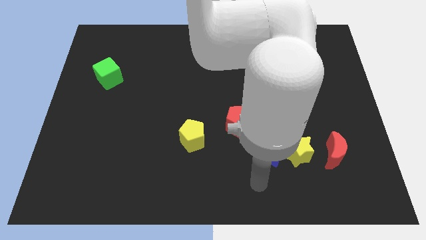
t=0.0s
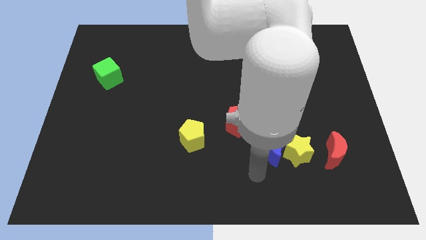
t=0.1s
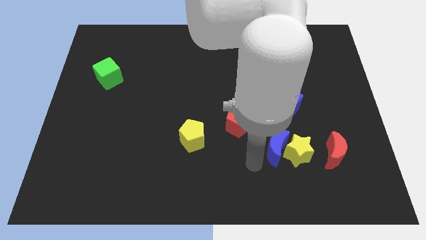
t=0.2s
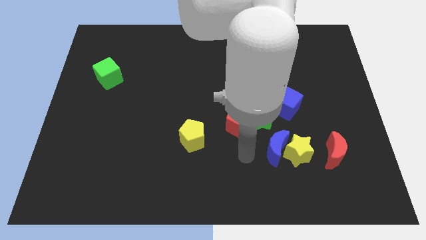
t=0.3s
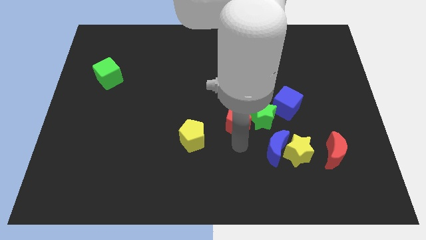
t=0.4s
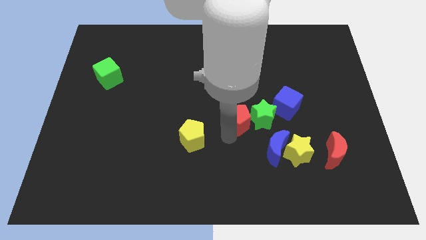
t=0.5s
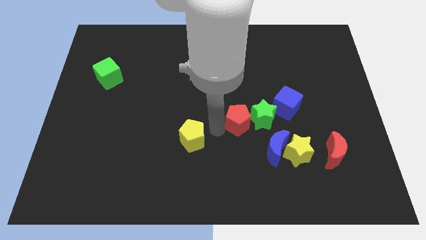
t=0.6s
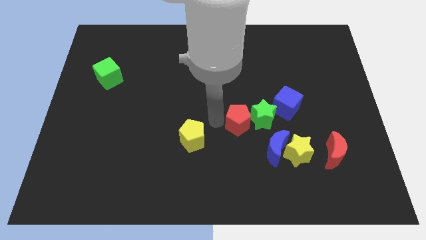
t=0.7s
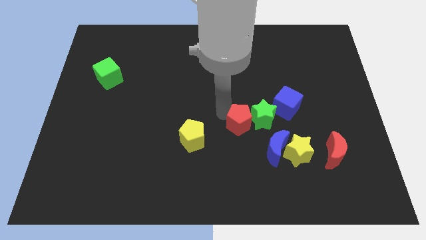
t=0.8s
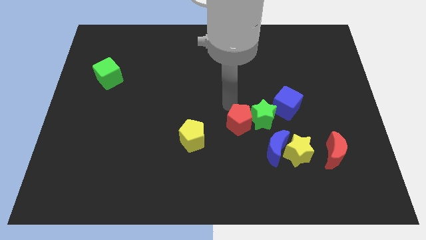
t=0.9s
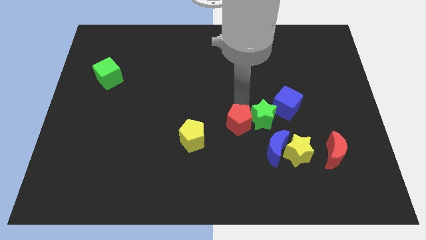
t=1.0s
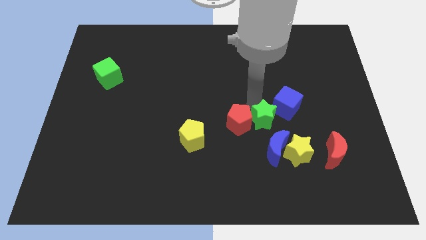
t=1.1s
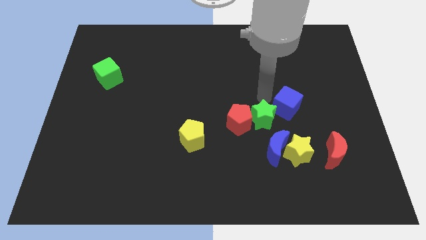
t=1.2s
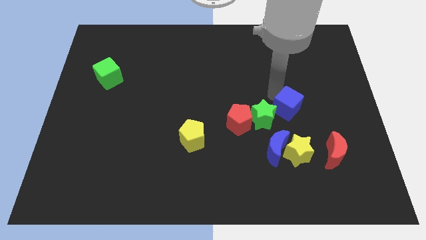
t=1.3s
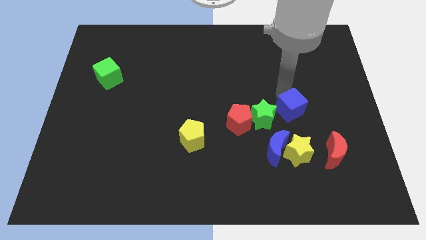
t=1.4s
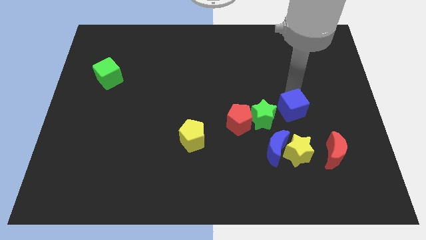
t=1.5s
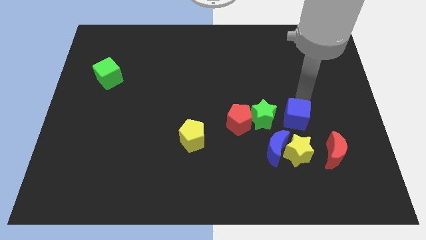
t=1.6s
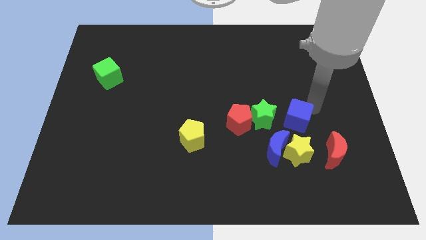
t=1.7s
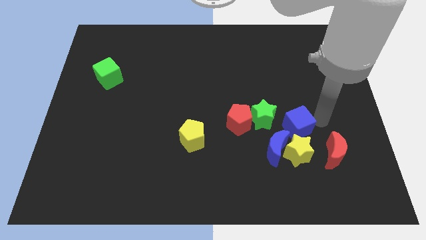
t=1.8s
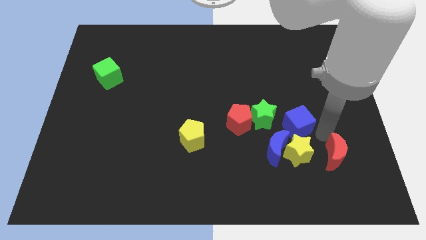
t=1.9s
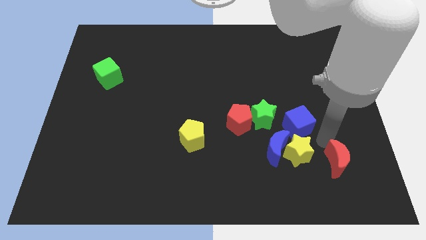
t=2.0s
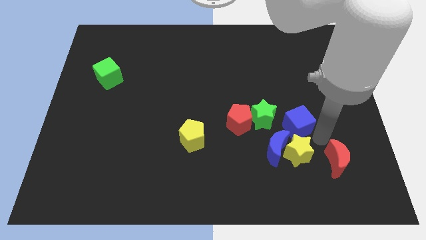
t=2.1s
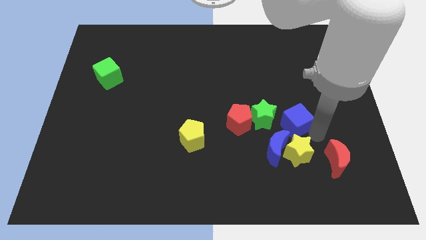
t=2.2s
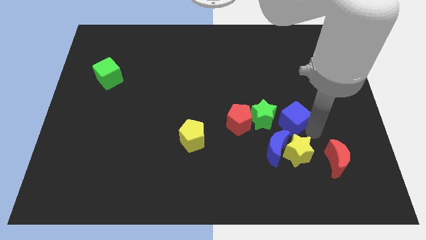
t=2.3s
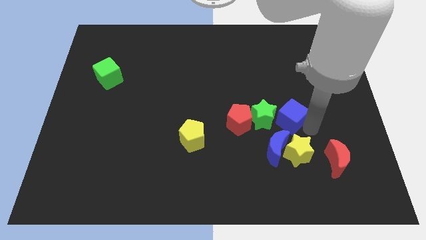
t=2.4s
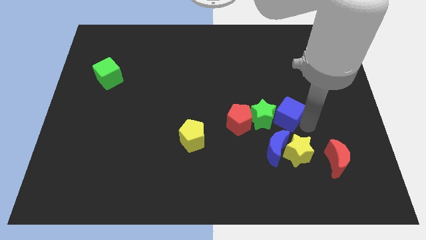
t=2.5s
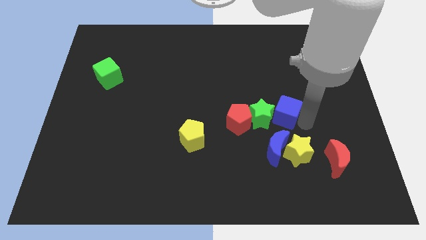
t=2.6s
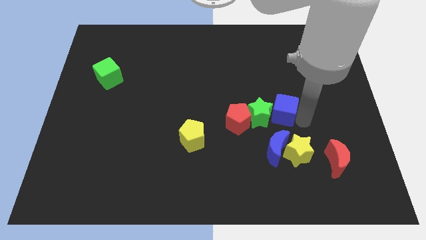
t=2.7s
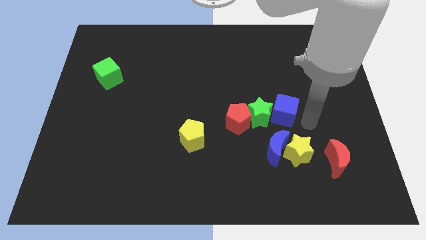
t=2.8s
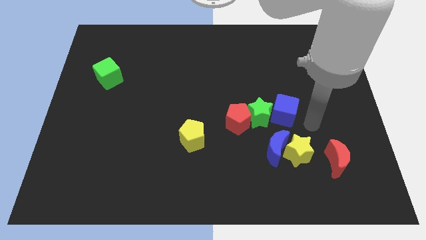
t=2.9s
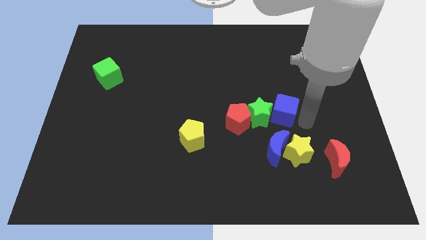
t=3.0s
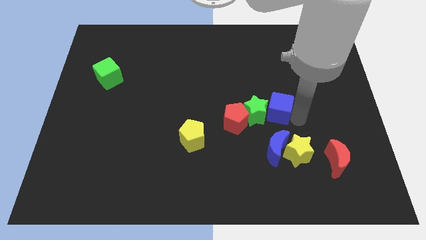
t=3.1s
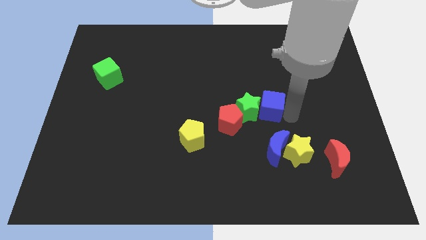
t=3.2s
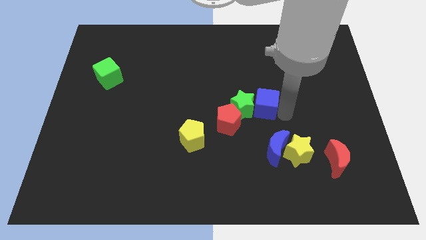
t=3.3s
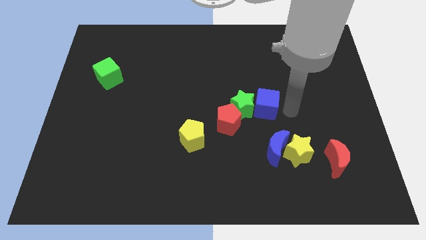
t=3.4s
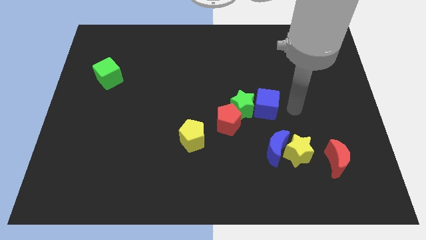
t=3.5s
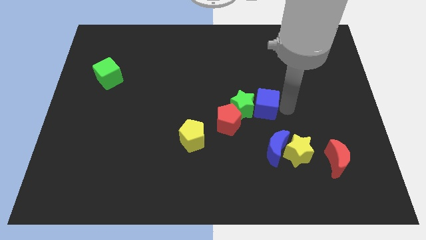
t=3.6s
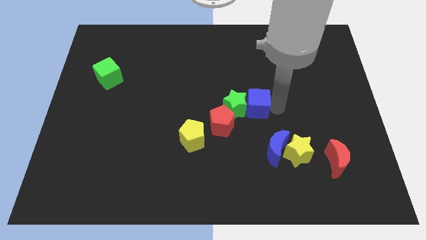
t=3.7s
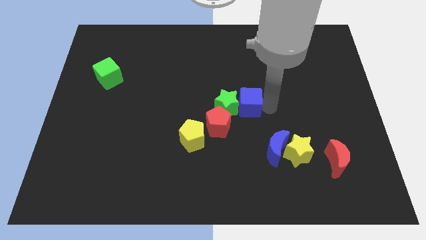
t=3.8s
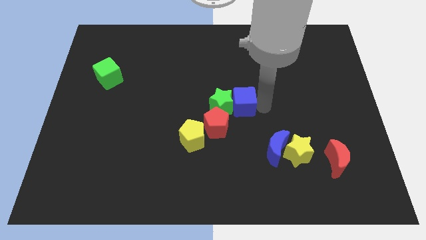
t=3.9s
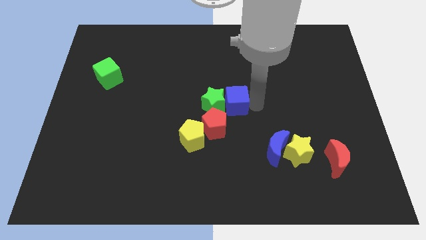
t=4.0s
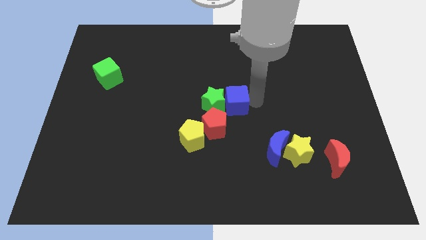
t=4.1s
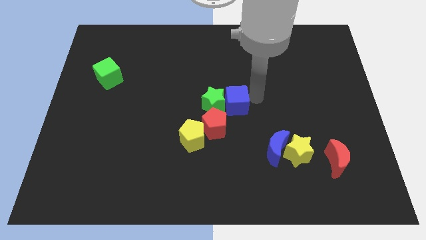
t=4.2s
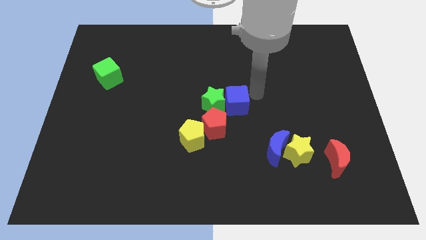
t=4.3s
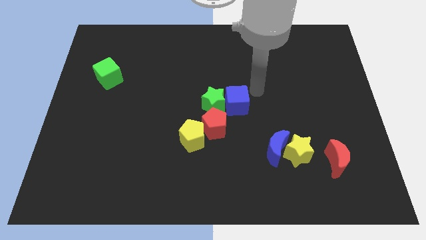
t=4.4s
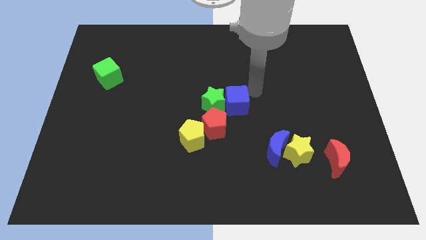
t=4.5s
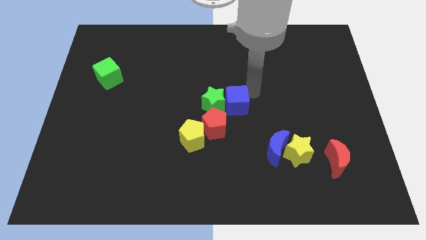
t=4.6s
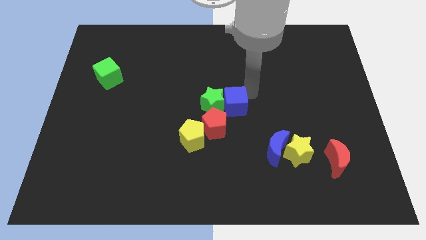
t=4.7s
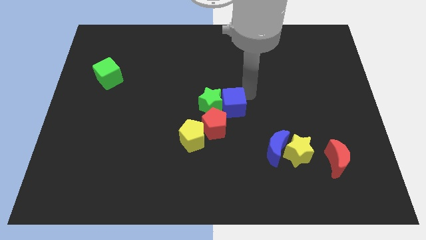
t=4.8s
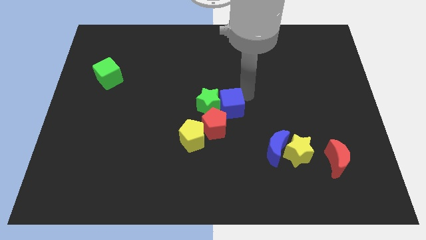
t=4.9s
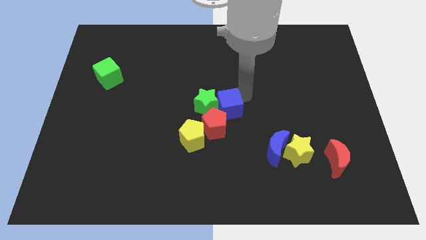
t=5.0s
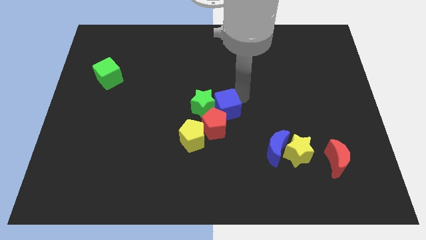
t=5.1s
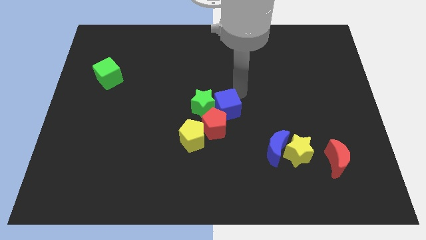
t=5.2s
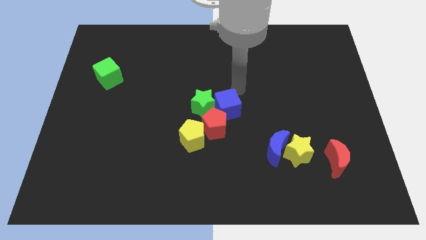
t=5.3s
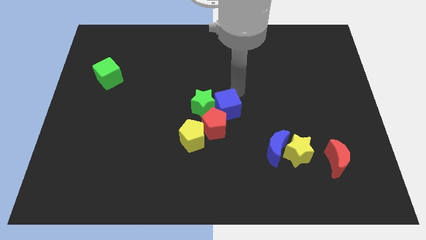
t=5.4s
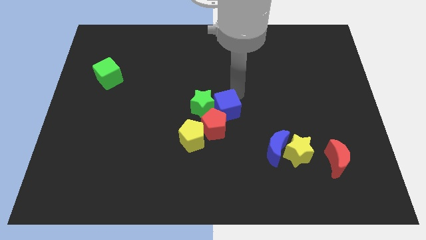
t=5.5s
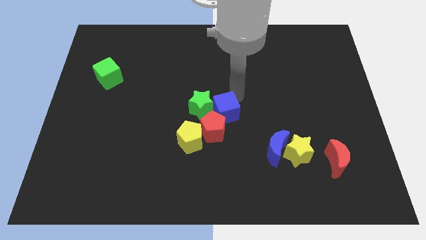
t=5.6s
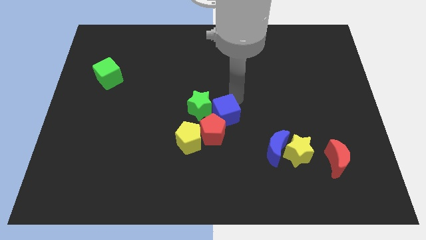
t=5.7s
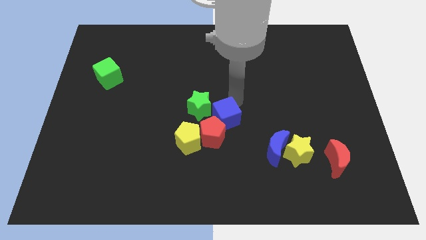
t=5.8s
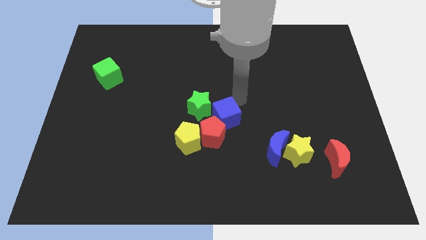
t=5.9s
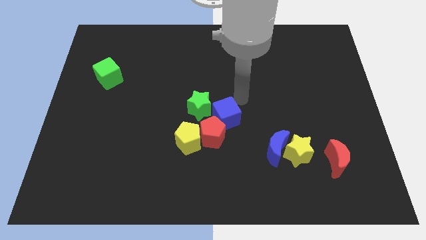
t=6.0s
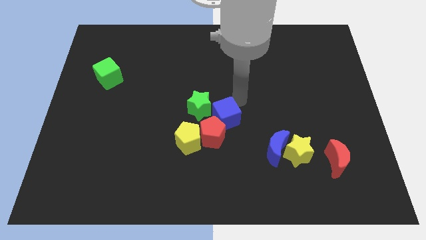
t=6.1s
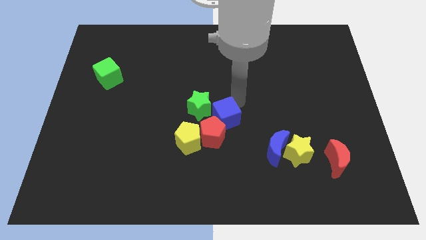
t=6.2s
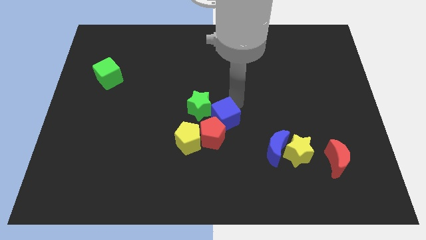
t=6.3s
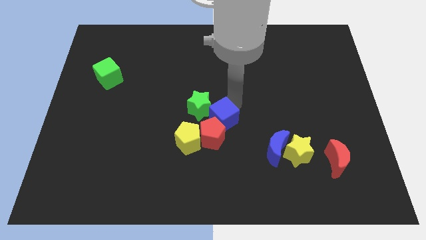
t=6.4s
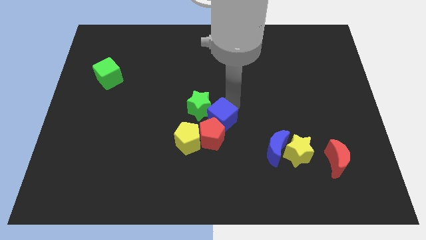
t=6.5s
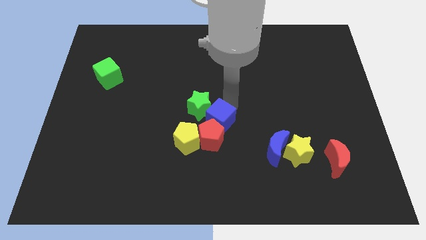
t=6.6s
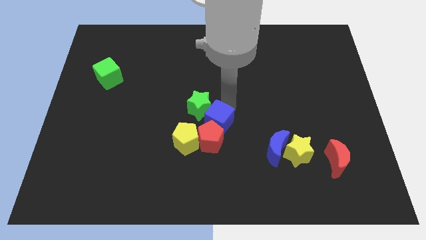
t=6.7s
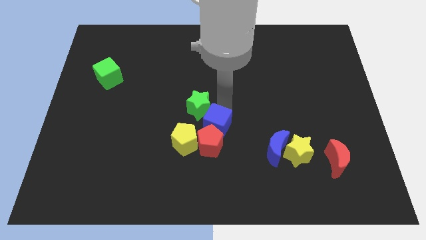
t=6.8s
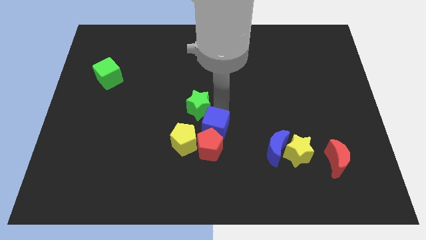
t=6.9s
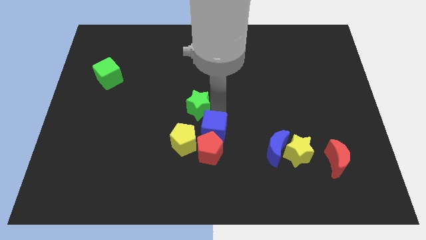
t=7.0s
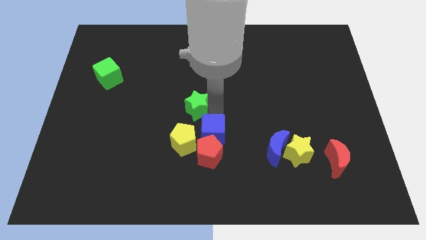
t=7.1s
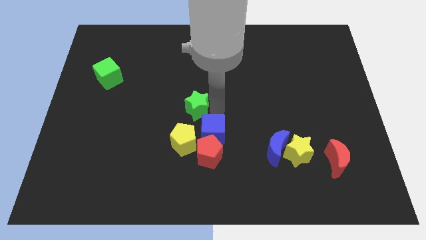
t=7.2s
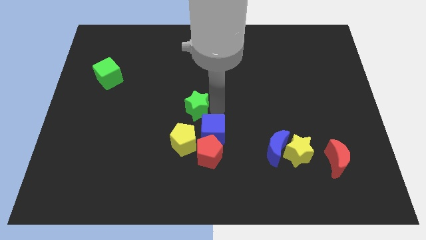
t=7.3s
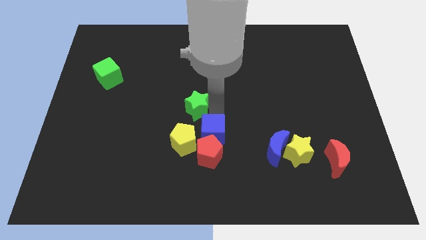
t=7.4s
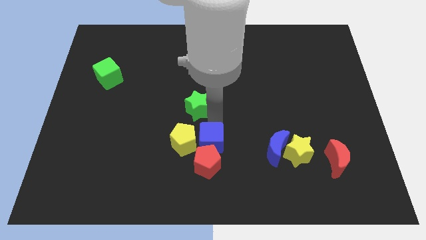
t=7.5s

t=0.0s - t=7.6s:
slide the blue cube to the bottom right side of the yellow pentagon
